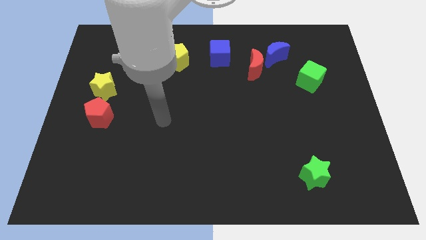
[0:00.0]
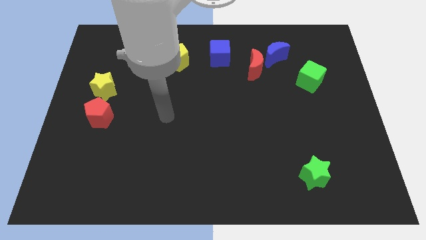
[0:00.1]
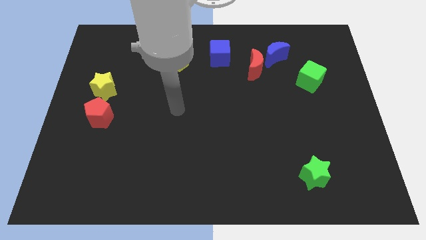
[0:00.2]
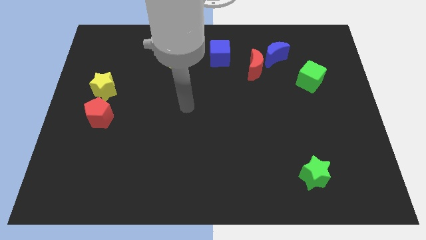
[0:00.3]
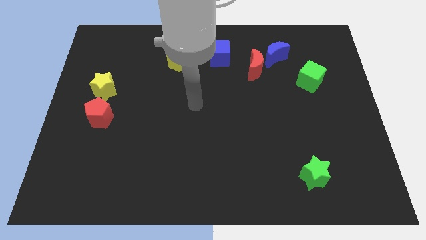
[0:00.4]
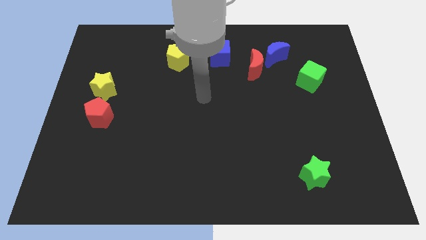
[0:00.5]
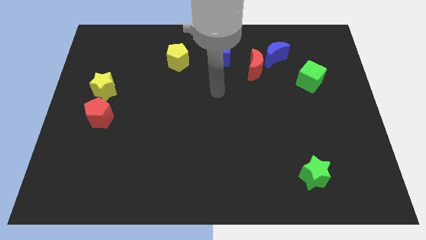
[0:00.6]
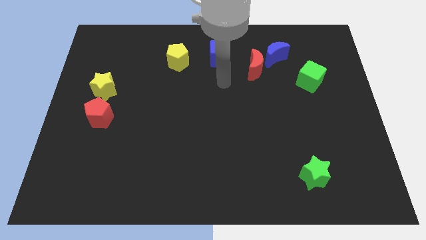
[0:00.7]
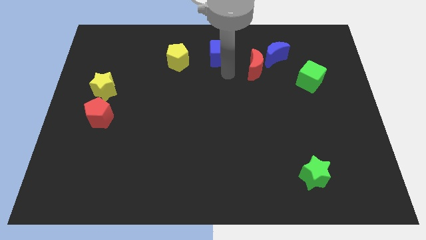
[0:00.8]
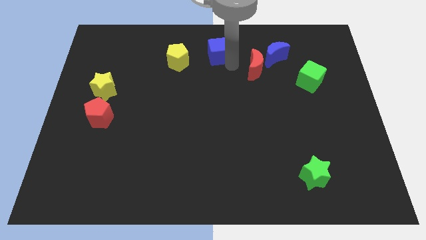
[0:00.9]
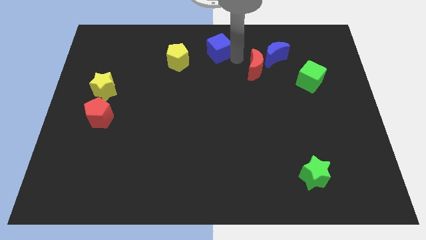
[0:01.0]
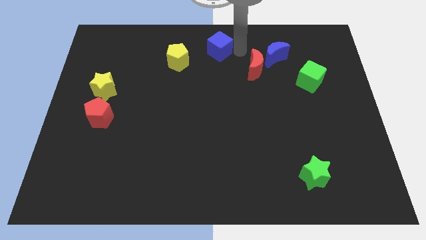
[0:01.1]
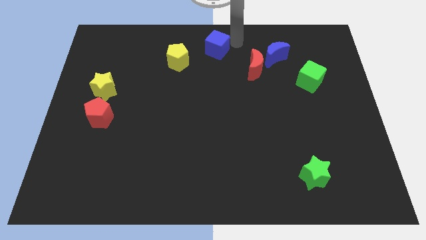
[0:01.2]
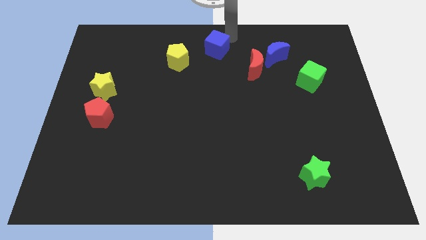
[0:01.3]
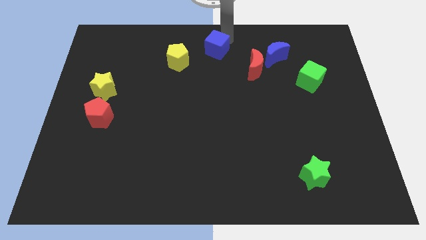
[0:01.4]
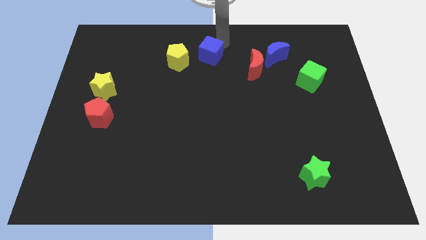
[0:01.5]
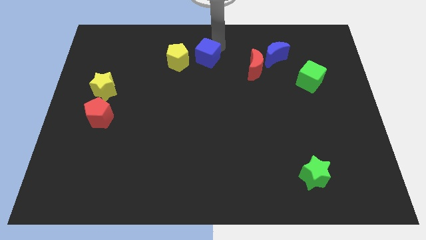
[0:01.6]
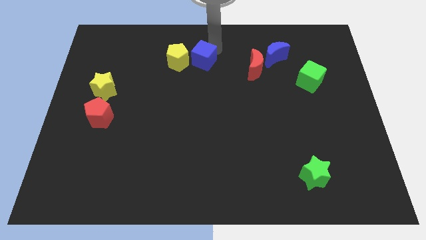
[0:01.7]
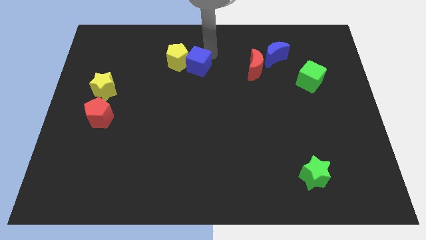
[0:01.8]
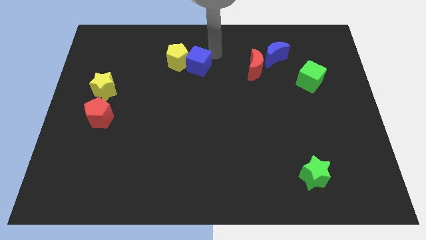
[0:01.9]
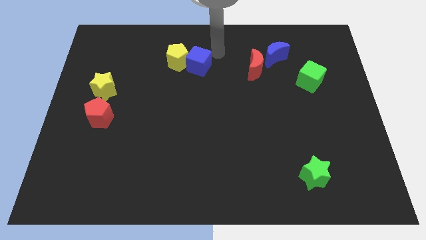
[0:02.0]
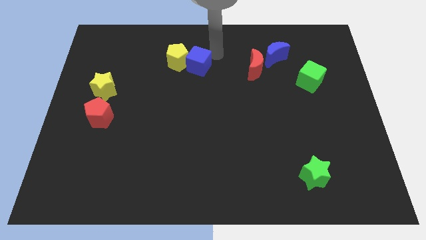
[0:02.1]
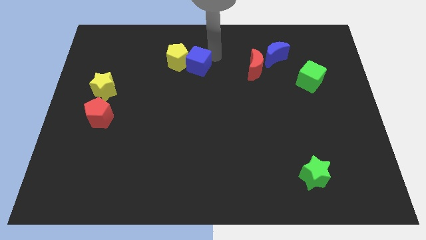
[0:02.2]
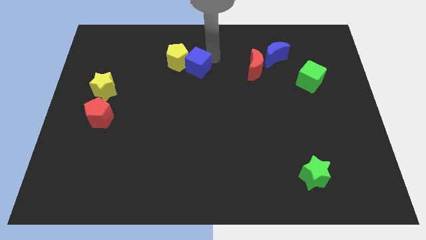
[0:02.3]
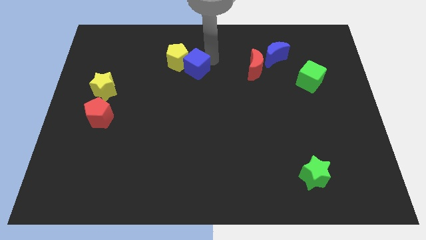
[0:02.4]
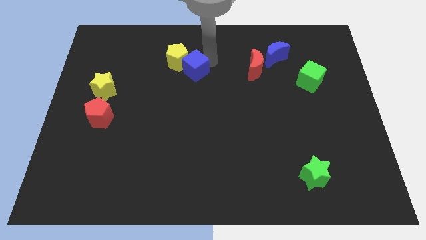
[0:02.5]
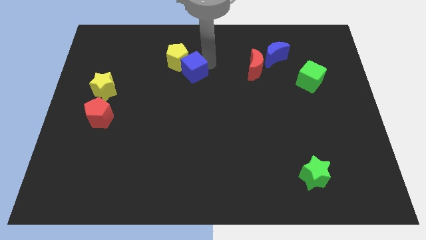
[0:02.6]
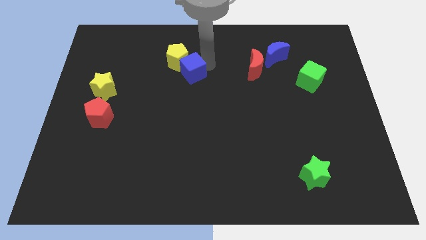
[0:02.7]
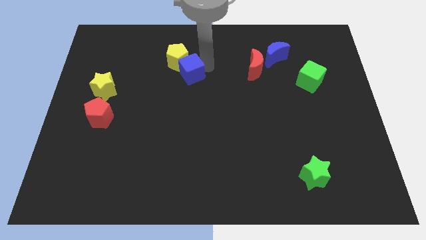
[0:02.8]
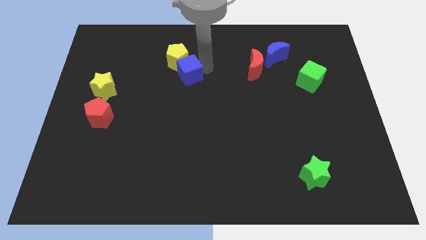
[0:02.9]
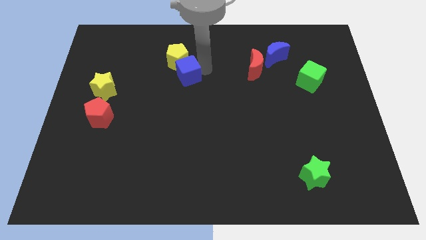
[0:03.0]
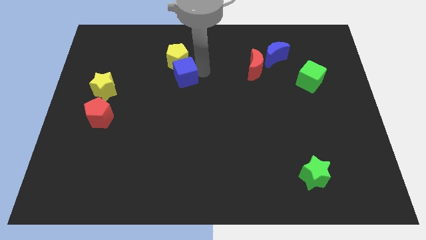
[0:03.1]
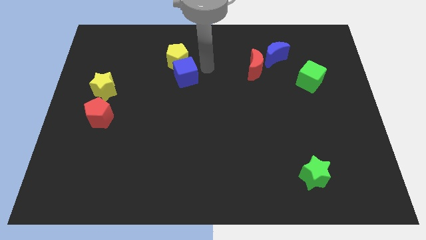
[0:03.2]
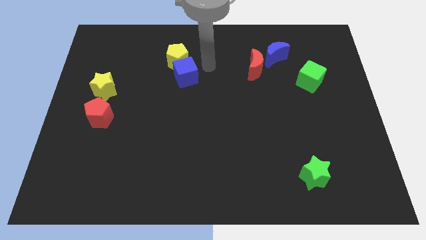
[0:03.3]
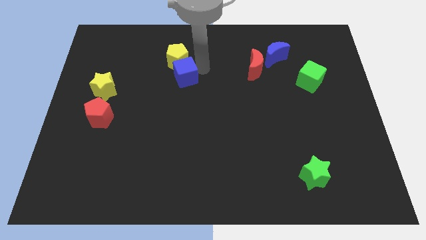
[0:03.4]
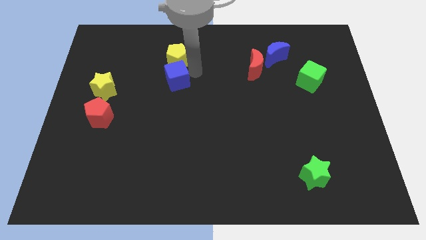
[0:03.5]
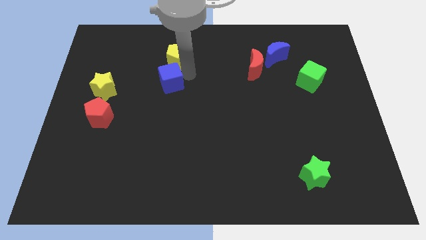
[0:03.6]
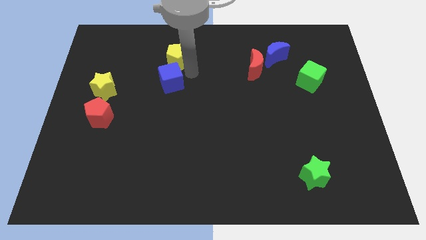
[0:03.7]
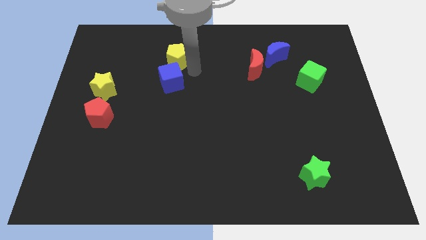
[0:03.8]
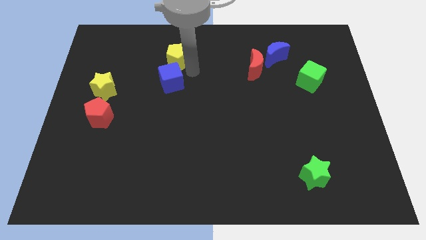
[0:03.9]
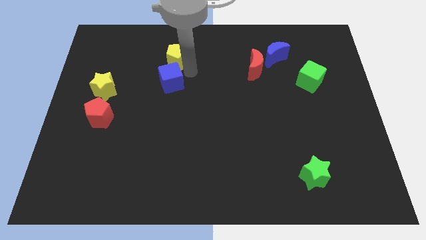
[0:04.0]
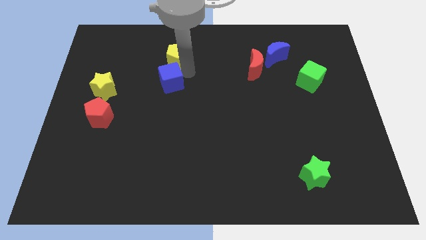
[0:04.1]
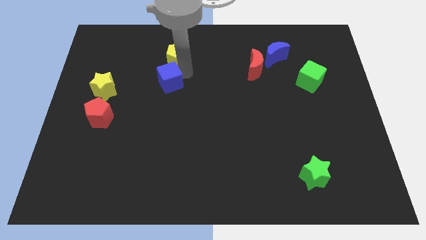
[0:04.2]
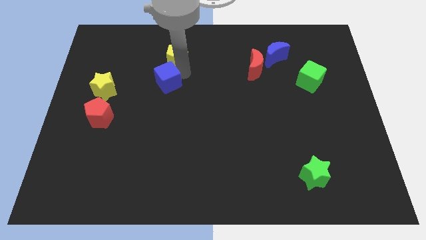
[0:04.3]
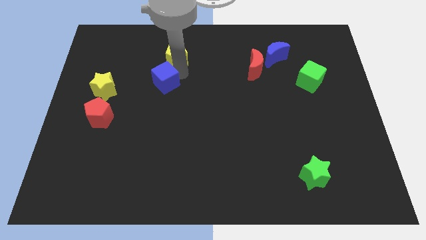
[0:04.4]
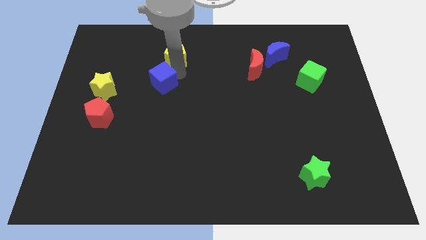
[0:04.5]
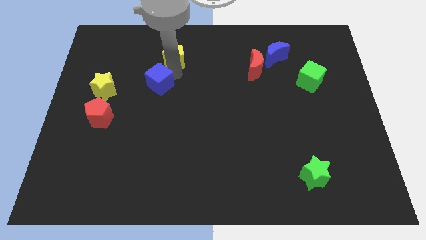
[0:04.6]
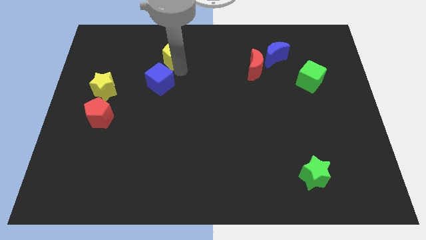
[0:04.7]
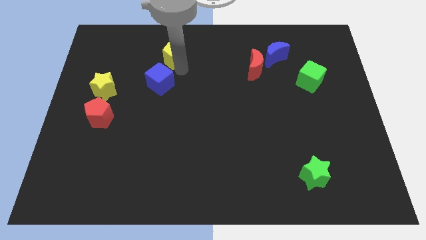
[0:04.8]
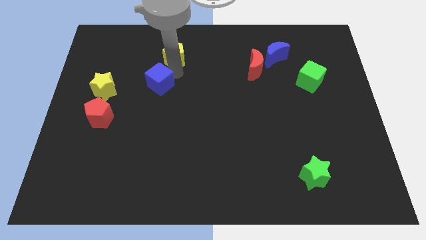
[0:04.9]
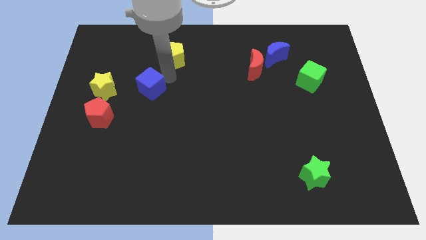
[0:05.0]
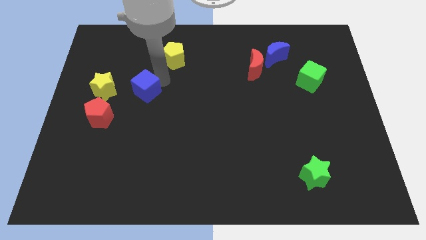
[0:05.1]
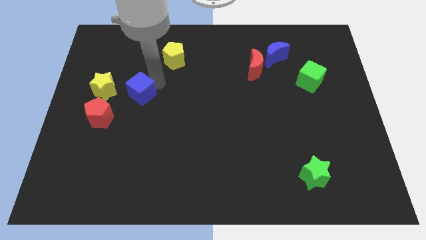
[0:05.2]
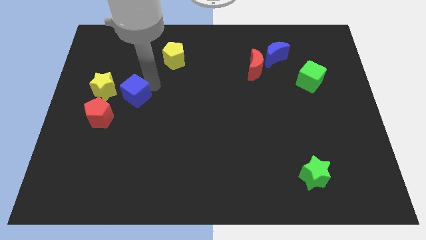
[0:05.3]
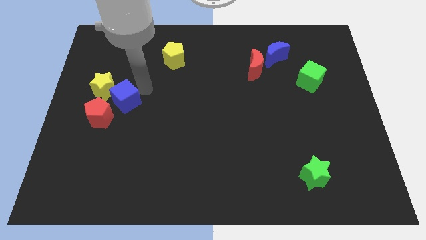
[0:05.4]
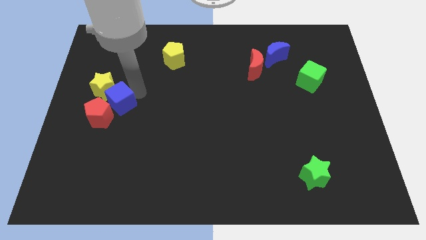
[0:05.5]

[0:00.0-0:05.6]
push the blue cube next to the red pentagon

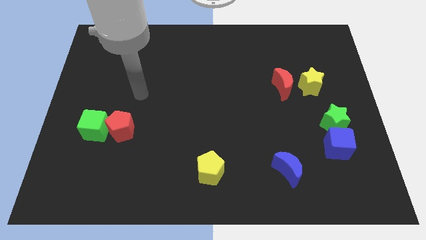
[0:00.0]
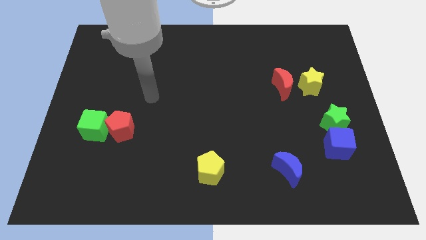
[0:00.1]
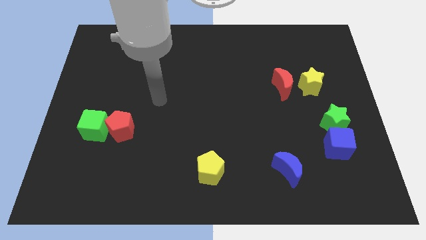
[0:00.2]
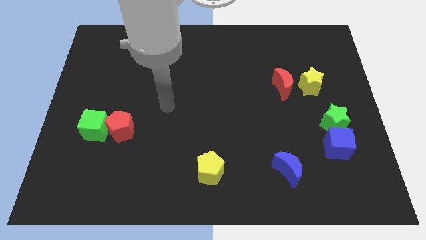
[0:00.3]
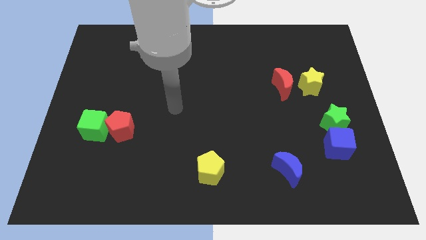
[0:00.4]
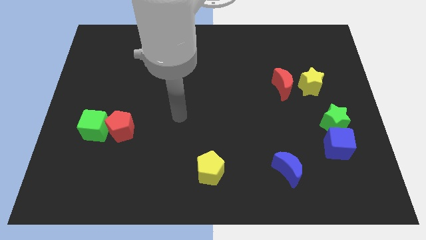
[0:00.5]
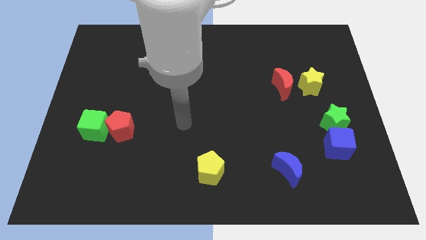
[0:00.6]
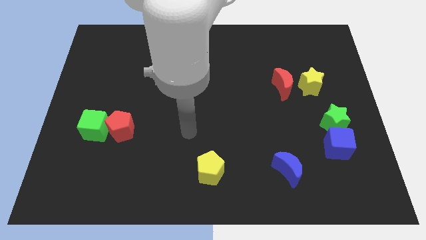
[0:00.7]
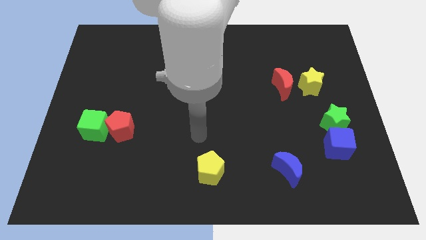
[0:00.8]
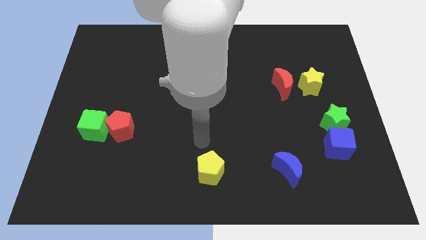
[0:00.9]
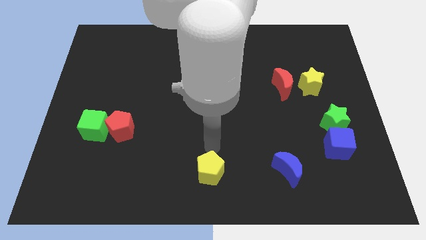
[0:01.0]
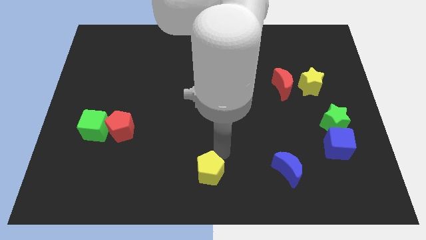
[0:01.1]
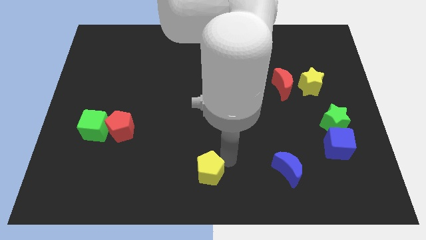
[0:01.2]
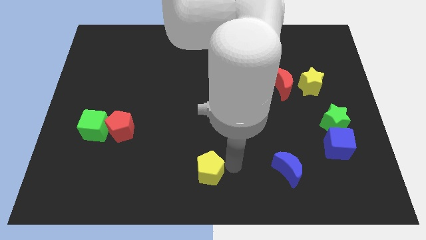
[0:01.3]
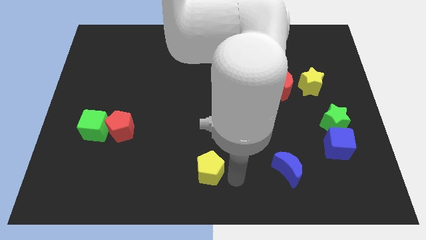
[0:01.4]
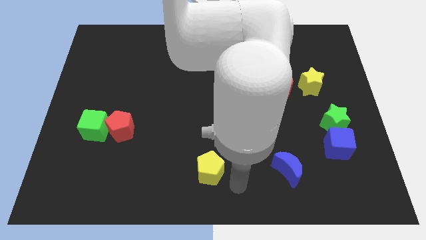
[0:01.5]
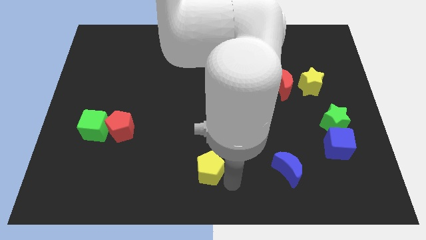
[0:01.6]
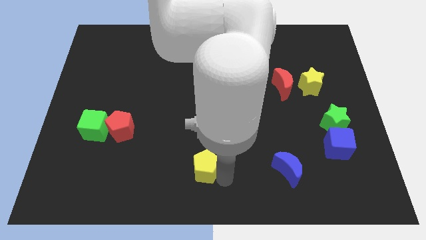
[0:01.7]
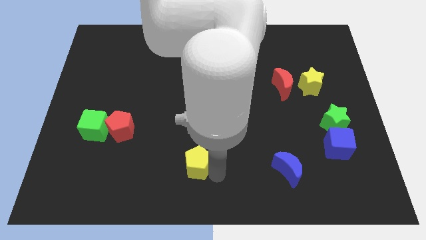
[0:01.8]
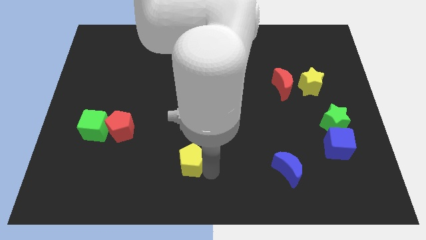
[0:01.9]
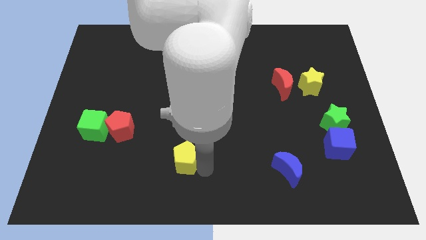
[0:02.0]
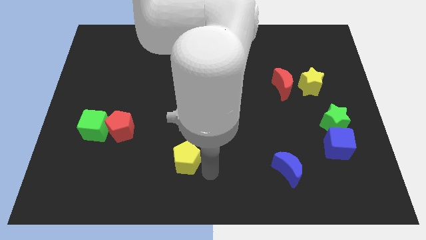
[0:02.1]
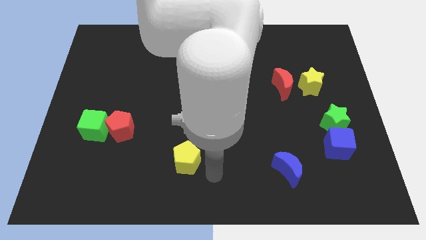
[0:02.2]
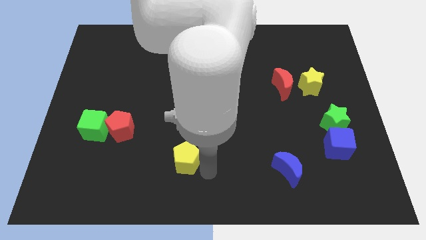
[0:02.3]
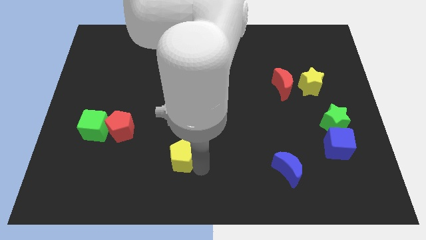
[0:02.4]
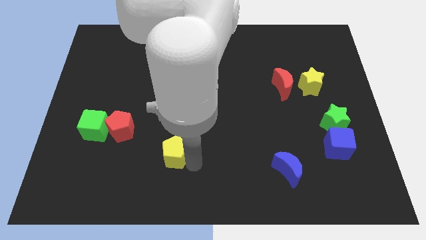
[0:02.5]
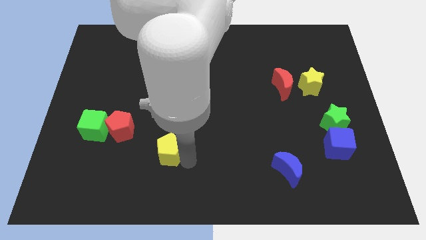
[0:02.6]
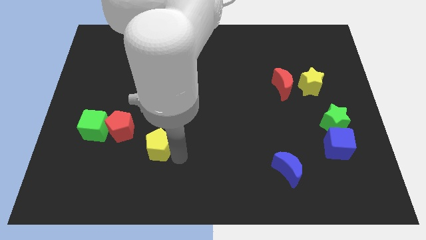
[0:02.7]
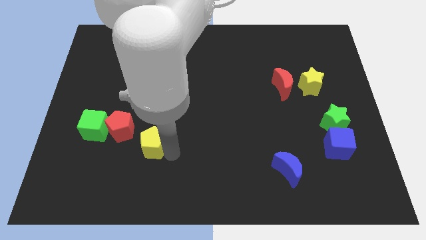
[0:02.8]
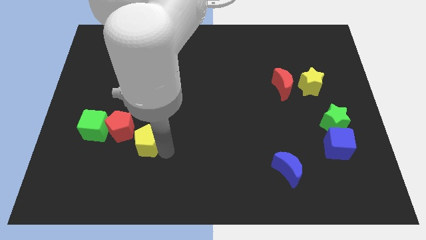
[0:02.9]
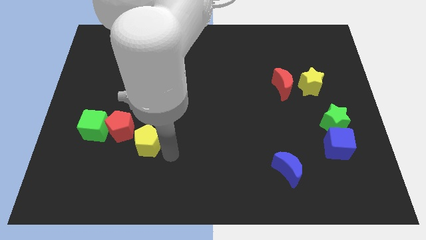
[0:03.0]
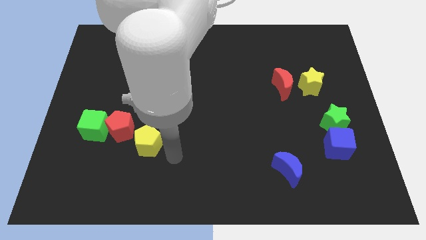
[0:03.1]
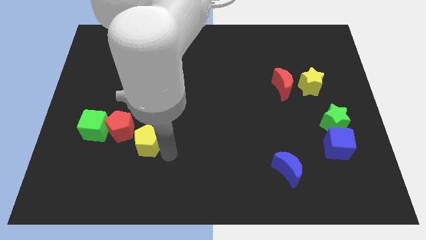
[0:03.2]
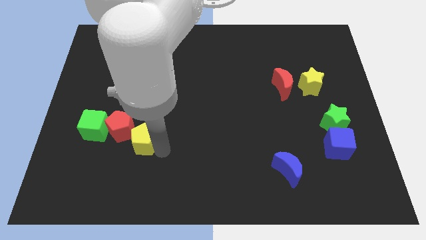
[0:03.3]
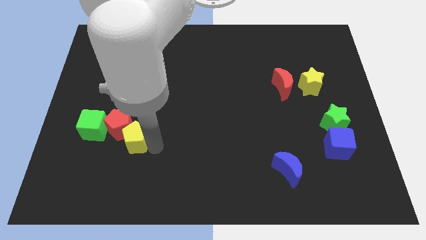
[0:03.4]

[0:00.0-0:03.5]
move the yellow pentagon next to the red pentagon
